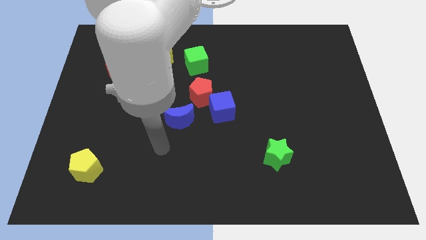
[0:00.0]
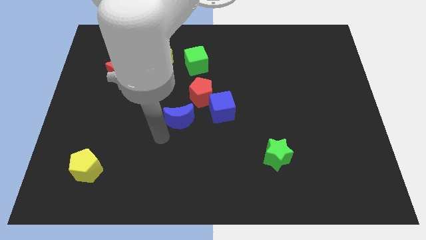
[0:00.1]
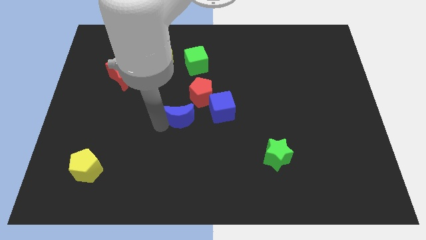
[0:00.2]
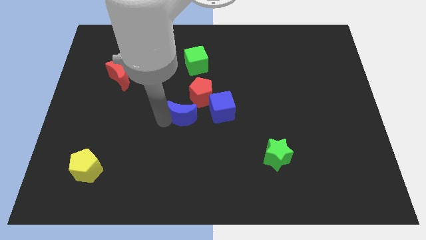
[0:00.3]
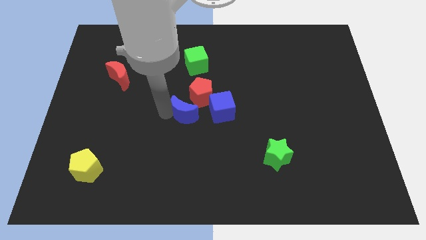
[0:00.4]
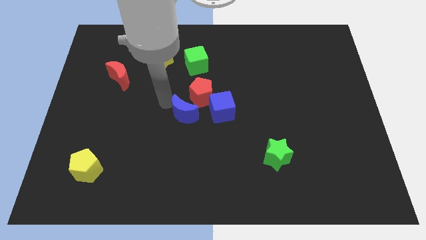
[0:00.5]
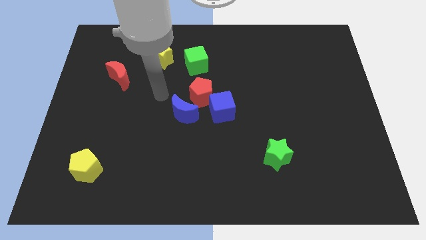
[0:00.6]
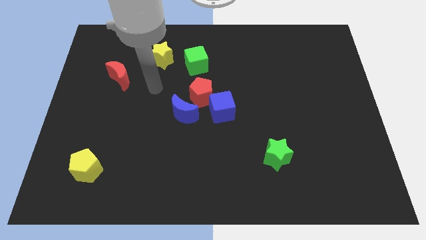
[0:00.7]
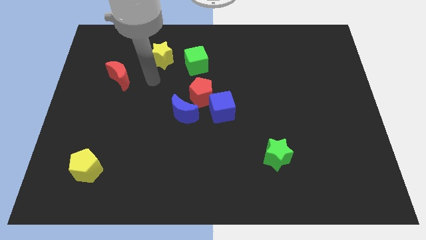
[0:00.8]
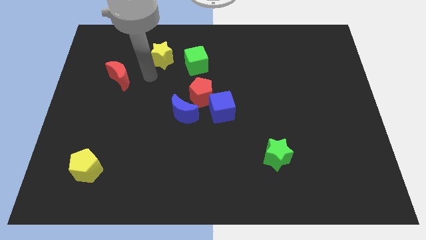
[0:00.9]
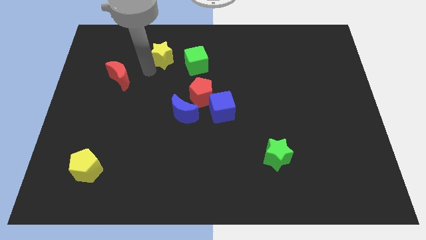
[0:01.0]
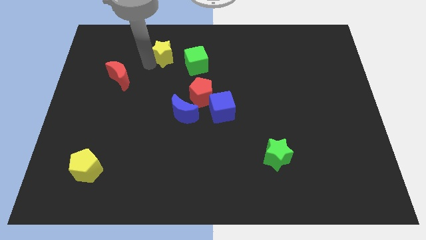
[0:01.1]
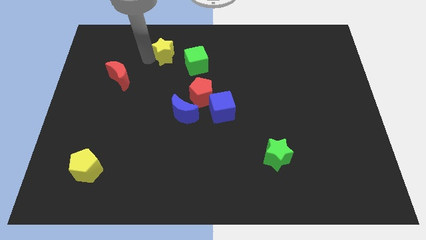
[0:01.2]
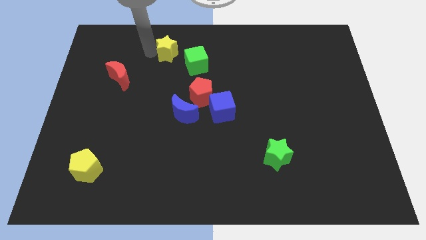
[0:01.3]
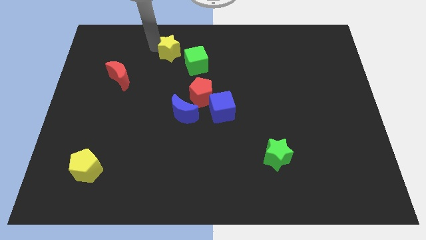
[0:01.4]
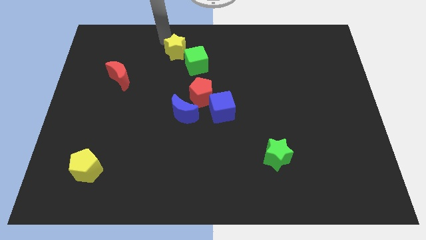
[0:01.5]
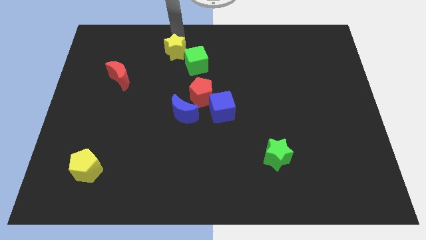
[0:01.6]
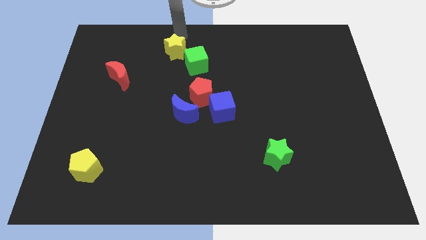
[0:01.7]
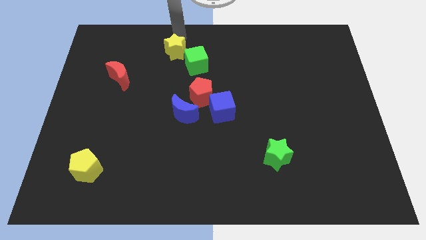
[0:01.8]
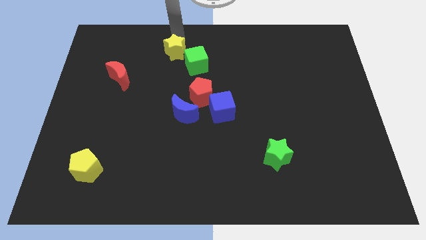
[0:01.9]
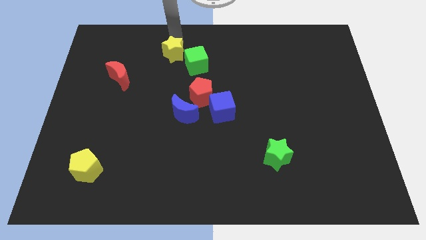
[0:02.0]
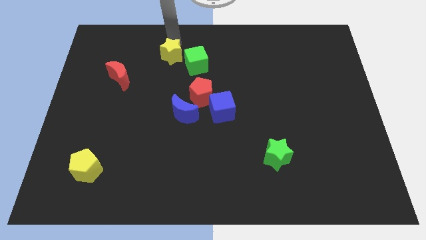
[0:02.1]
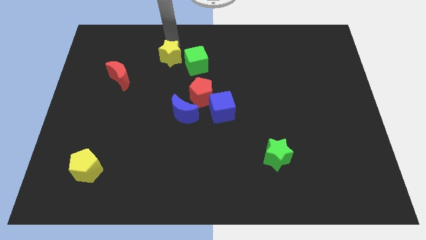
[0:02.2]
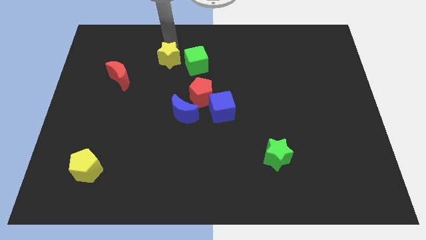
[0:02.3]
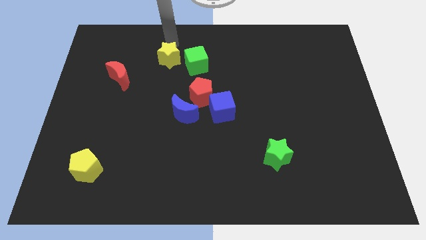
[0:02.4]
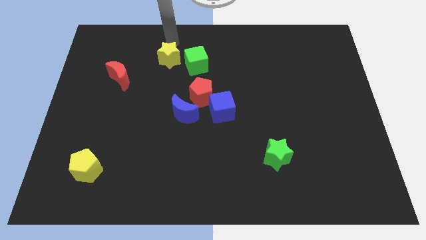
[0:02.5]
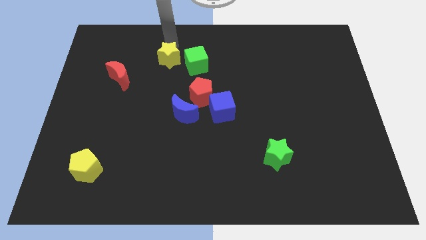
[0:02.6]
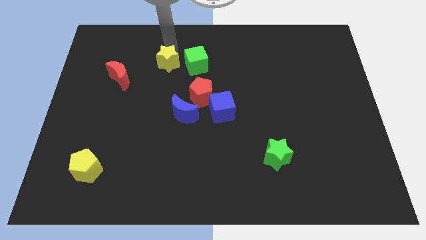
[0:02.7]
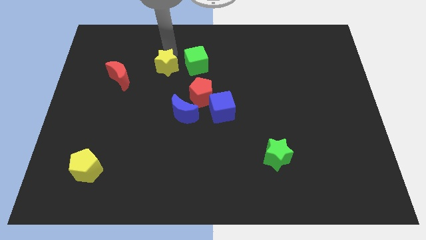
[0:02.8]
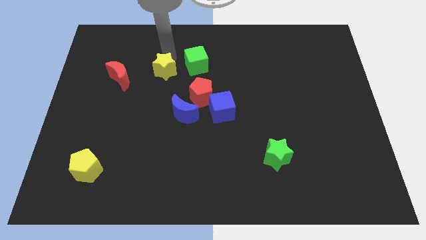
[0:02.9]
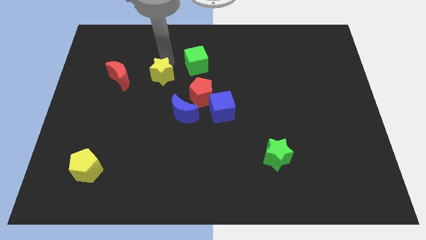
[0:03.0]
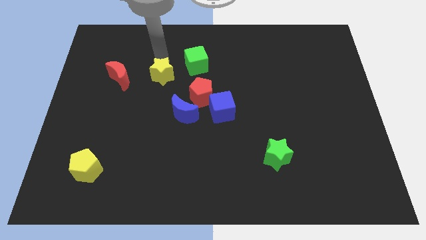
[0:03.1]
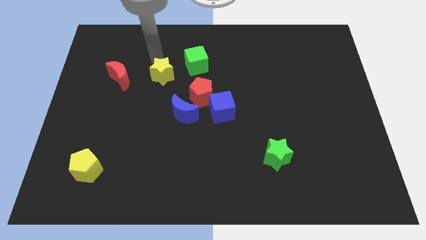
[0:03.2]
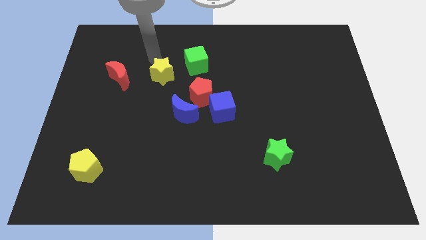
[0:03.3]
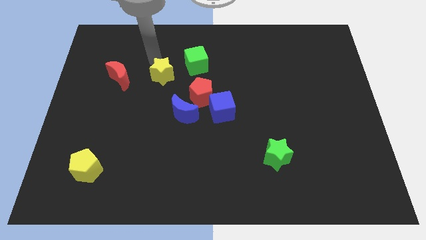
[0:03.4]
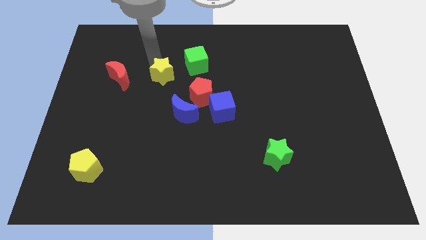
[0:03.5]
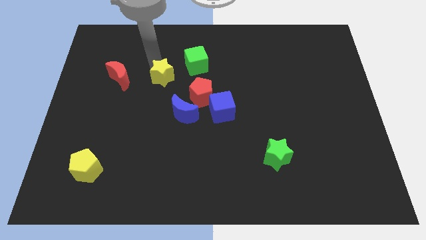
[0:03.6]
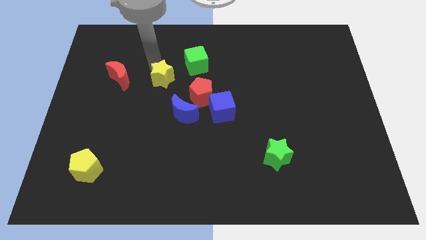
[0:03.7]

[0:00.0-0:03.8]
move the yellow star somewhat down

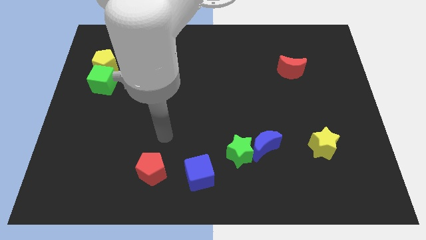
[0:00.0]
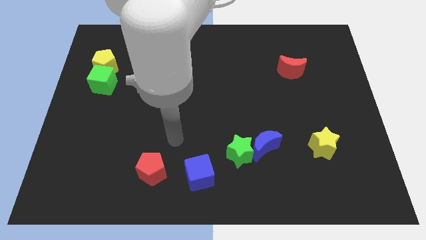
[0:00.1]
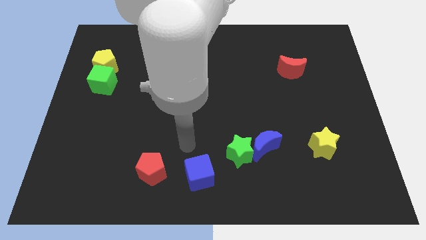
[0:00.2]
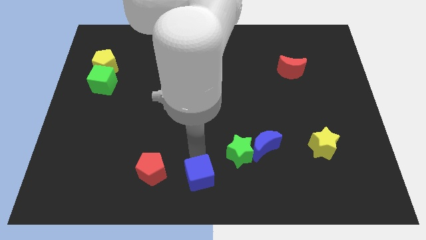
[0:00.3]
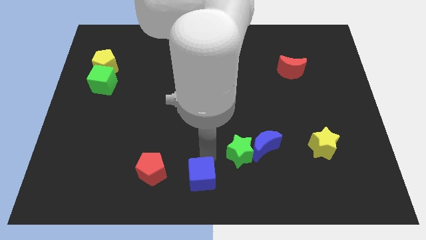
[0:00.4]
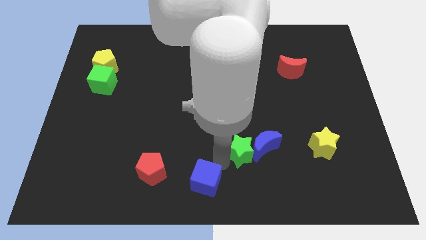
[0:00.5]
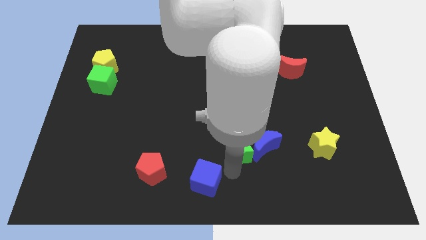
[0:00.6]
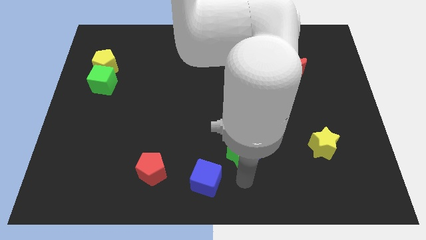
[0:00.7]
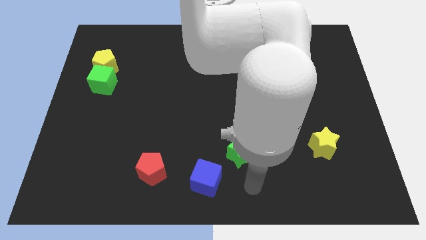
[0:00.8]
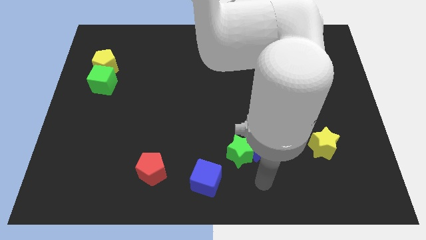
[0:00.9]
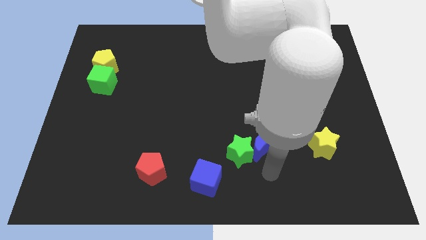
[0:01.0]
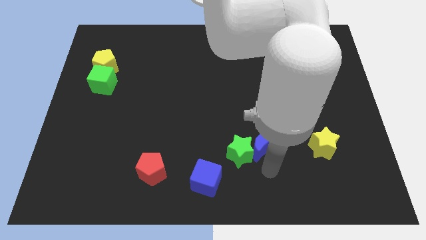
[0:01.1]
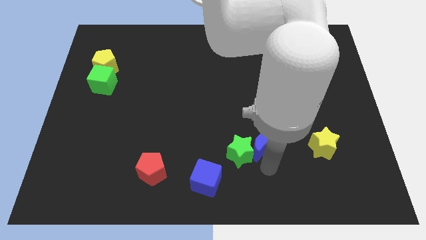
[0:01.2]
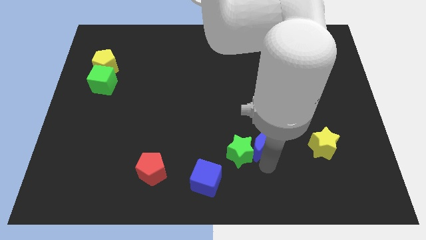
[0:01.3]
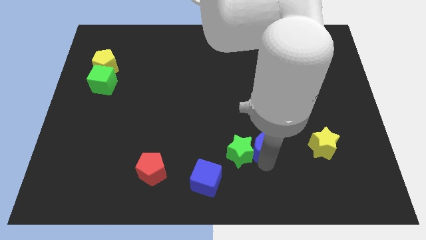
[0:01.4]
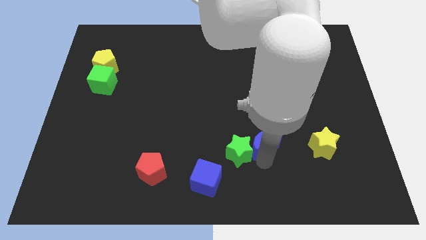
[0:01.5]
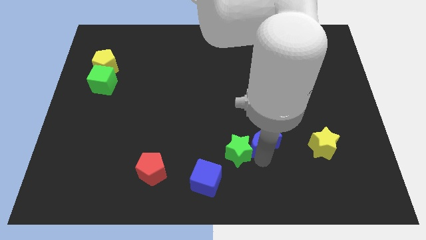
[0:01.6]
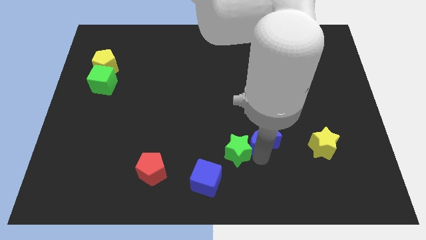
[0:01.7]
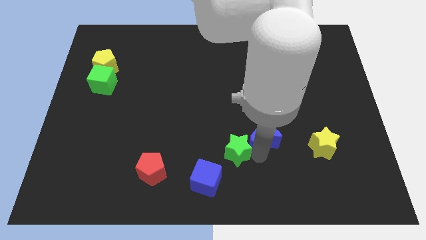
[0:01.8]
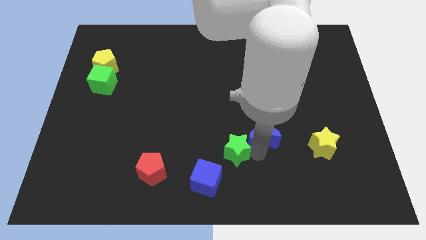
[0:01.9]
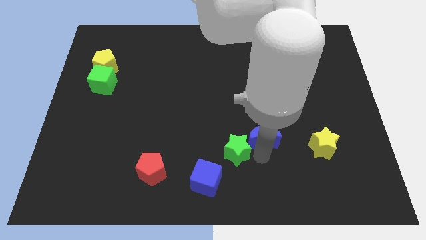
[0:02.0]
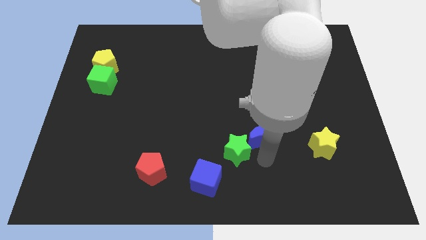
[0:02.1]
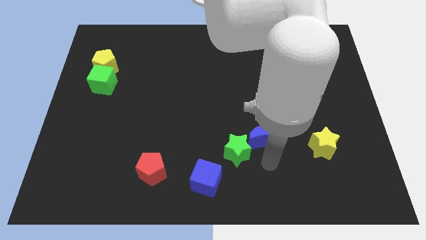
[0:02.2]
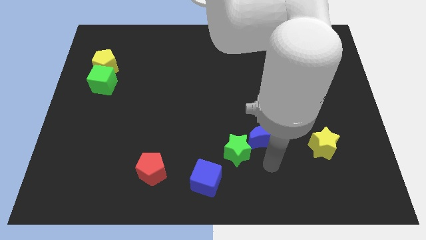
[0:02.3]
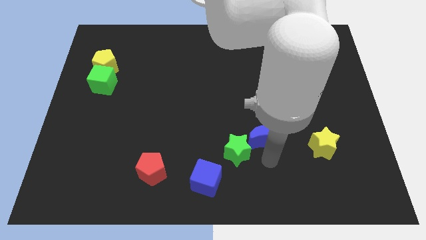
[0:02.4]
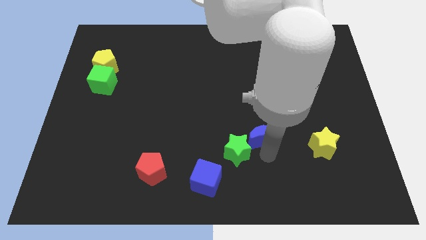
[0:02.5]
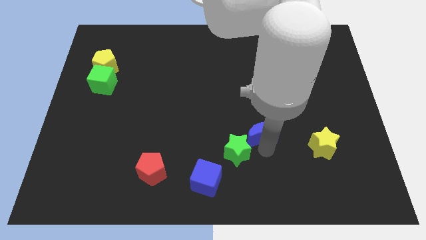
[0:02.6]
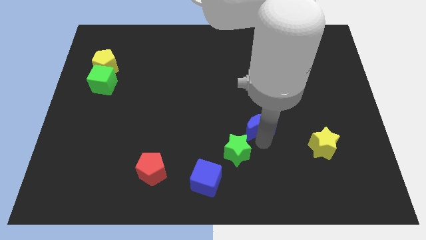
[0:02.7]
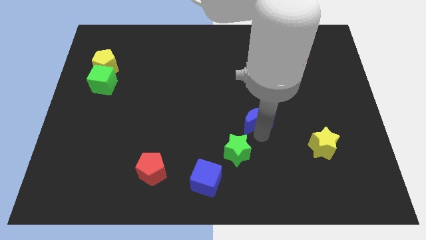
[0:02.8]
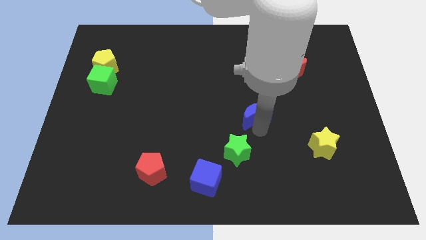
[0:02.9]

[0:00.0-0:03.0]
move the blue moon upwards a bit

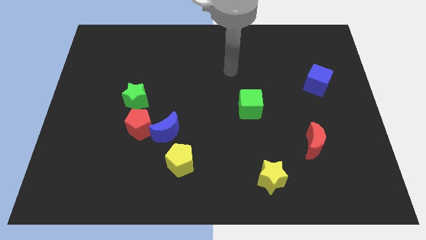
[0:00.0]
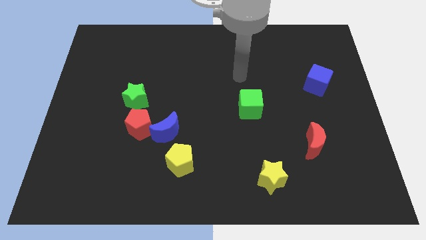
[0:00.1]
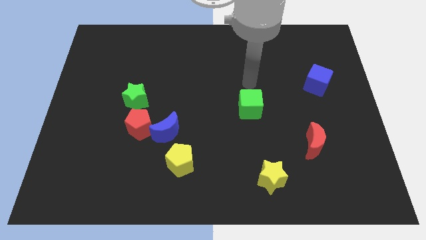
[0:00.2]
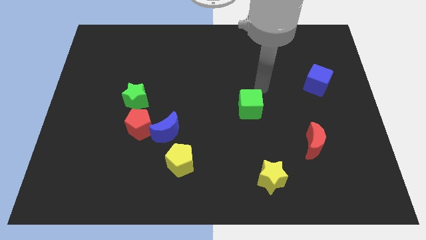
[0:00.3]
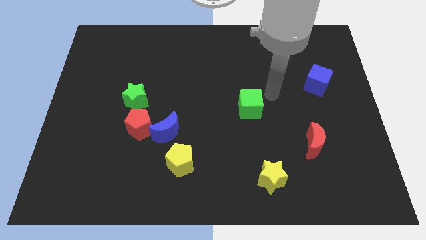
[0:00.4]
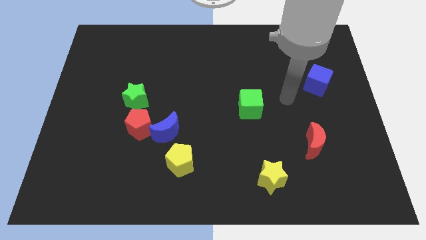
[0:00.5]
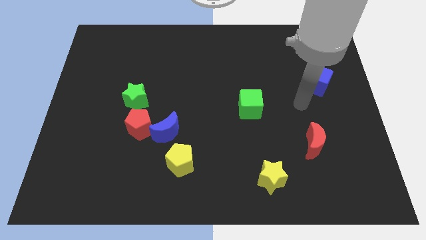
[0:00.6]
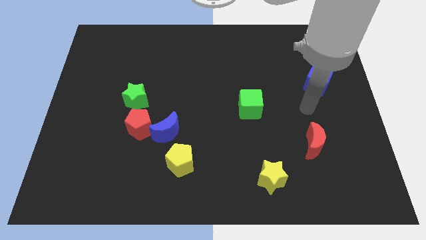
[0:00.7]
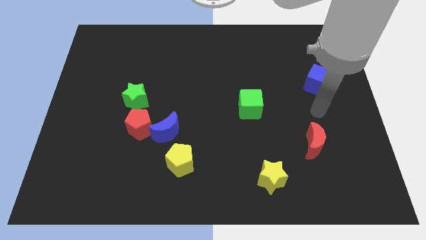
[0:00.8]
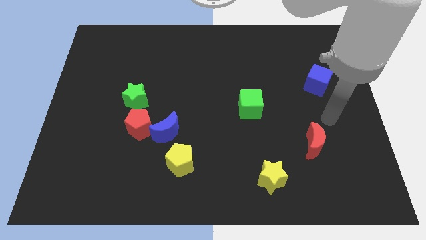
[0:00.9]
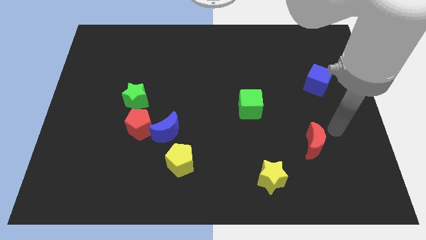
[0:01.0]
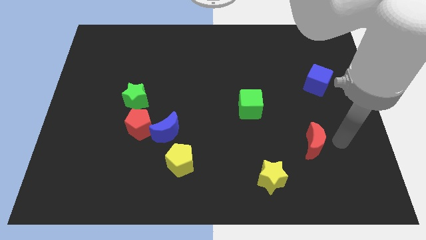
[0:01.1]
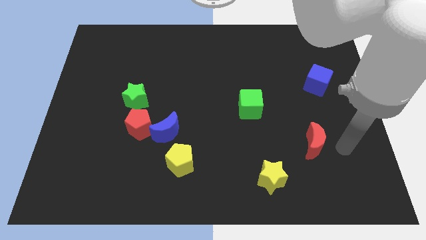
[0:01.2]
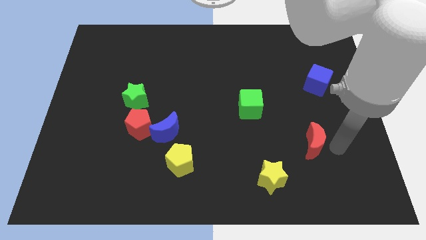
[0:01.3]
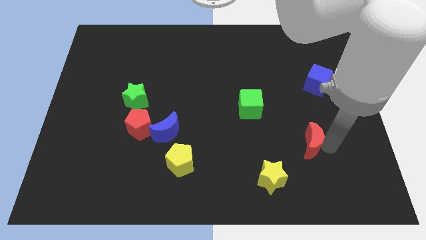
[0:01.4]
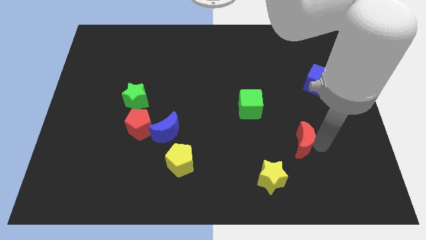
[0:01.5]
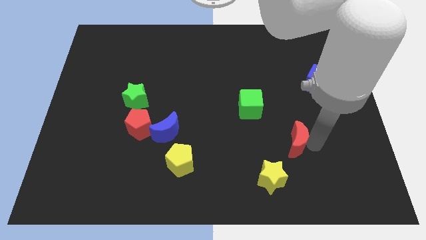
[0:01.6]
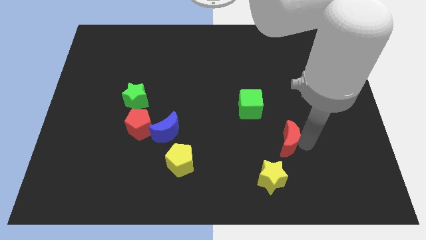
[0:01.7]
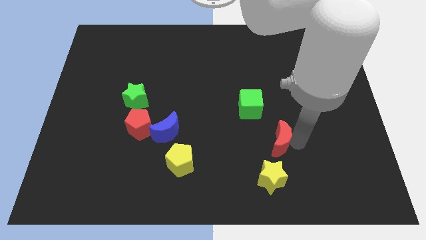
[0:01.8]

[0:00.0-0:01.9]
slightly move the red moon left
